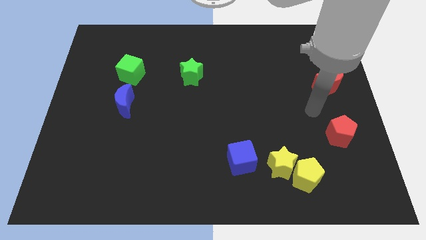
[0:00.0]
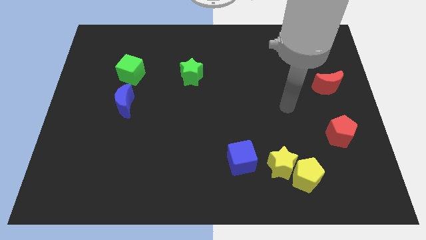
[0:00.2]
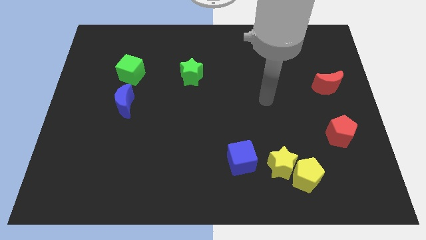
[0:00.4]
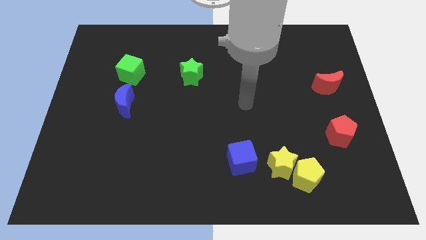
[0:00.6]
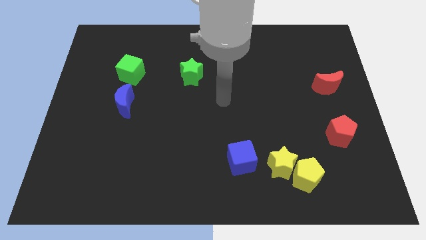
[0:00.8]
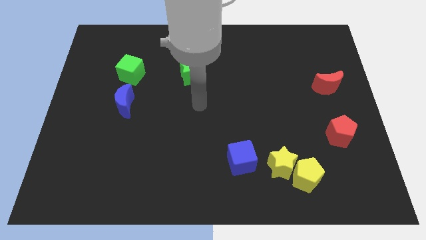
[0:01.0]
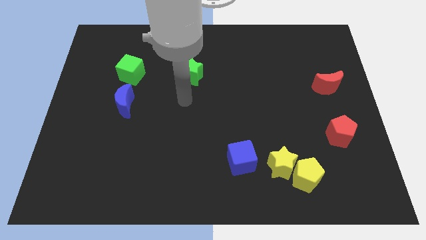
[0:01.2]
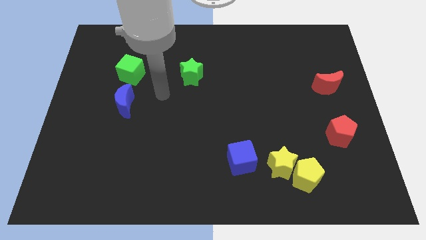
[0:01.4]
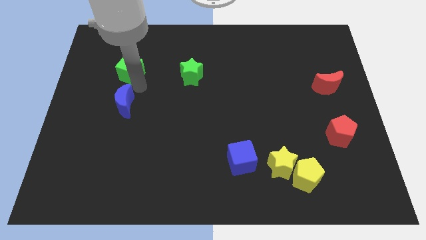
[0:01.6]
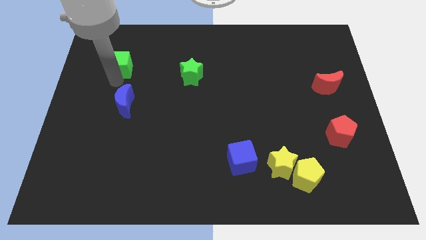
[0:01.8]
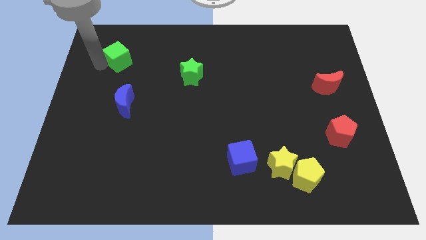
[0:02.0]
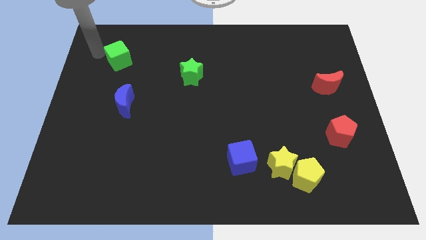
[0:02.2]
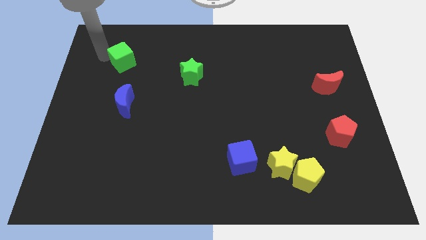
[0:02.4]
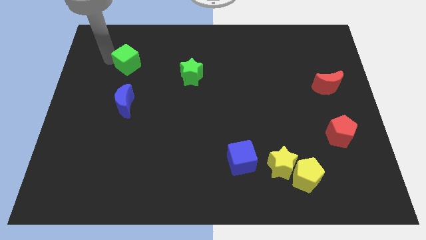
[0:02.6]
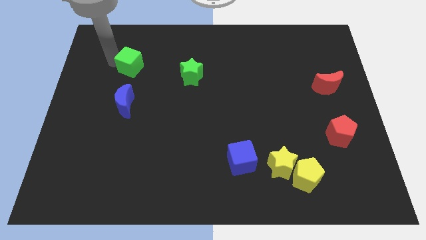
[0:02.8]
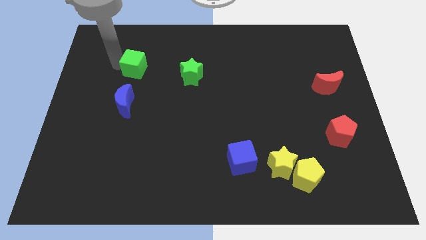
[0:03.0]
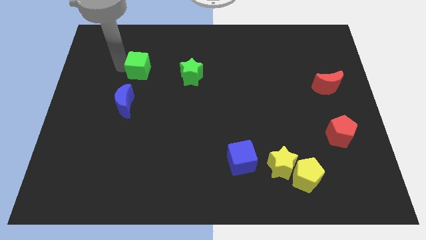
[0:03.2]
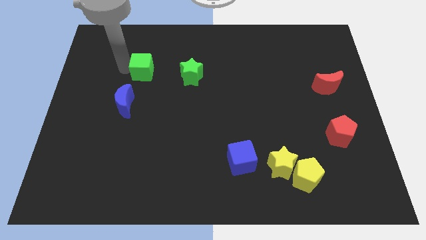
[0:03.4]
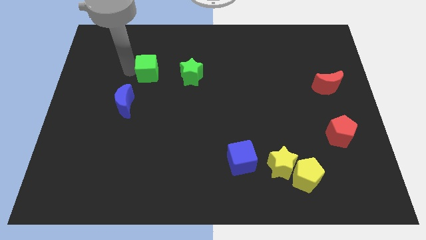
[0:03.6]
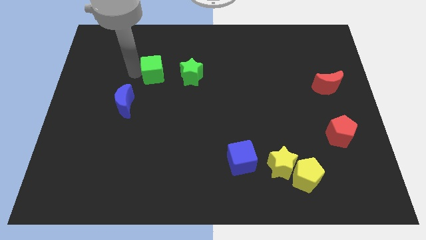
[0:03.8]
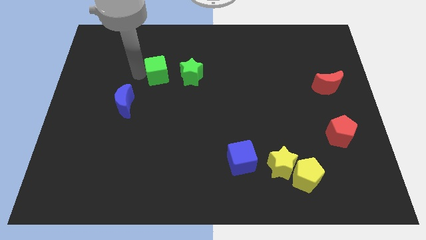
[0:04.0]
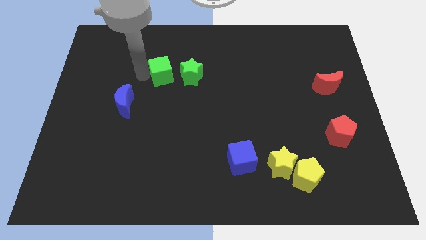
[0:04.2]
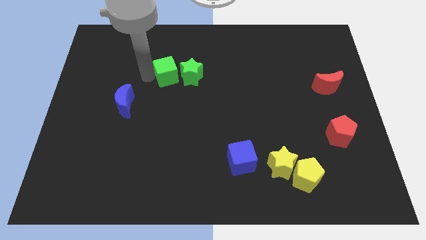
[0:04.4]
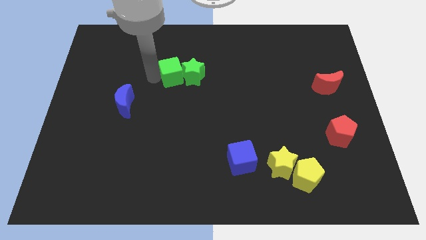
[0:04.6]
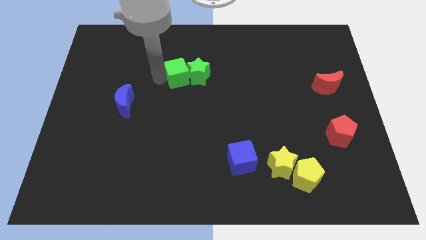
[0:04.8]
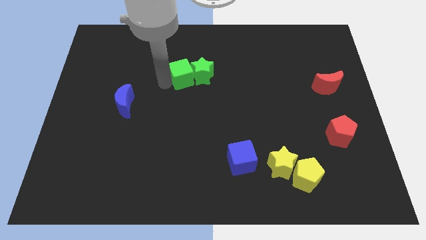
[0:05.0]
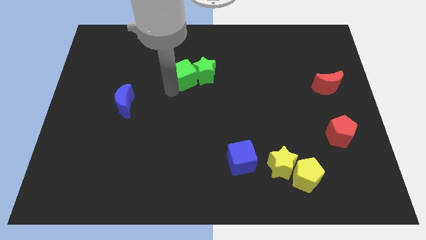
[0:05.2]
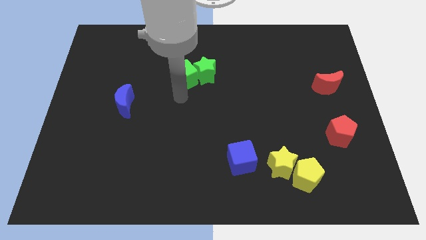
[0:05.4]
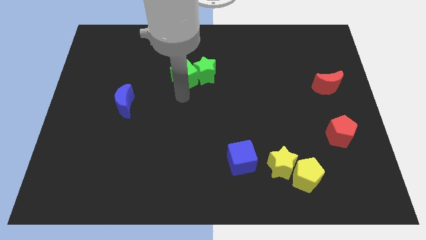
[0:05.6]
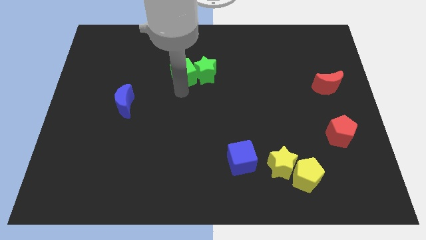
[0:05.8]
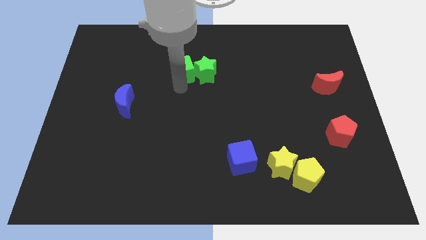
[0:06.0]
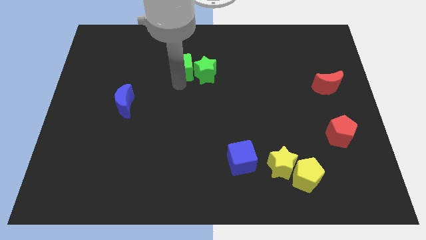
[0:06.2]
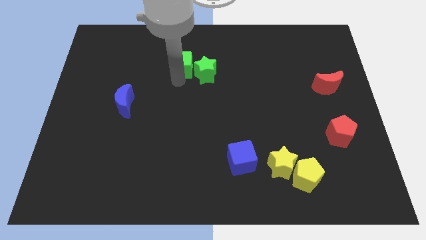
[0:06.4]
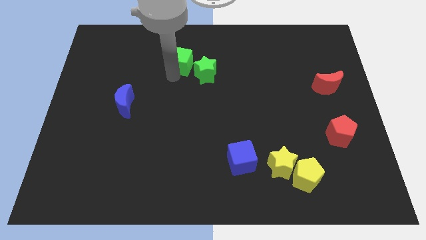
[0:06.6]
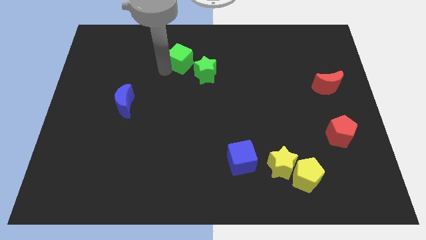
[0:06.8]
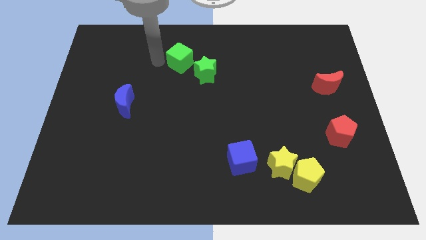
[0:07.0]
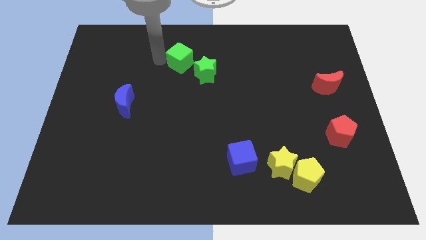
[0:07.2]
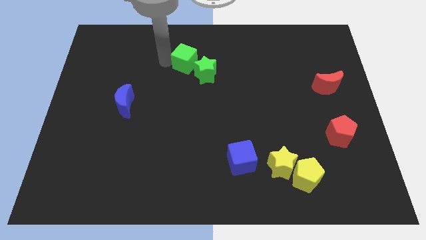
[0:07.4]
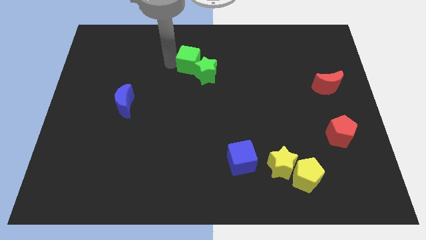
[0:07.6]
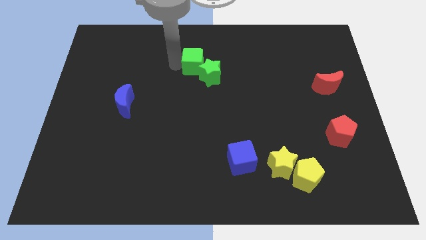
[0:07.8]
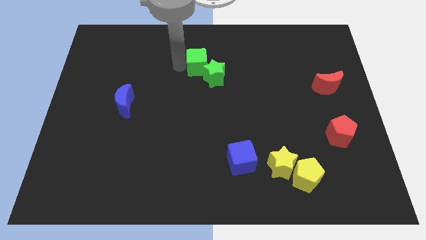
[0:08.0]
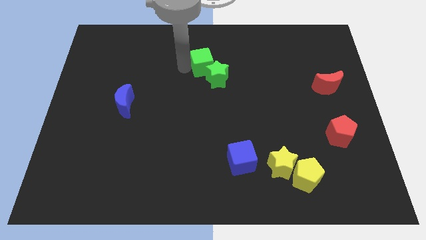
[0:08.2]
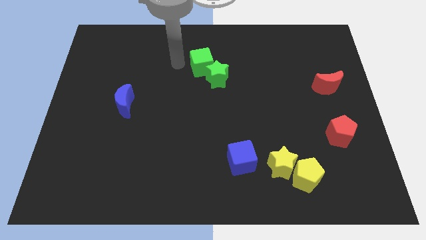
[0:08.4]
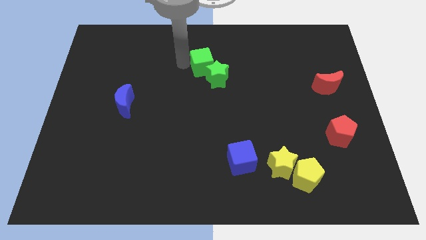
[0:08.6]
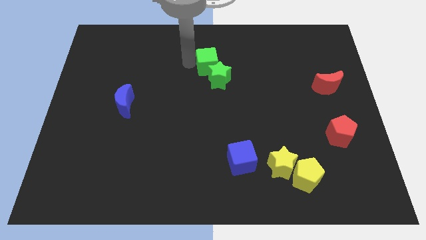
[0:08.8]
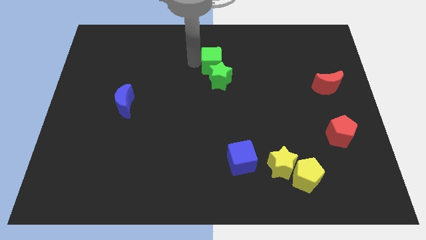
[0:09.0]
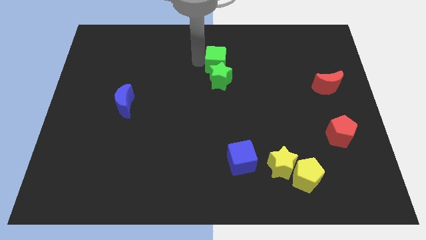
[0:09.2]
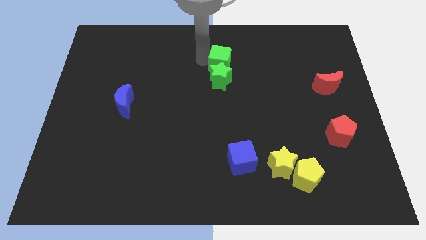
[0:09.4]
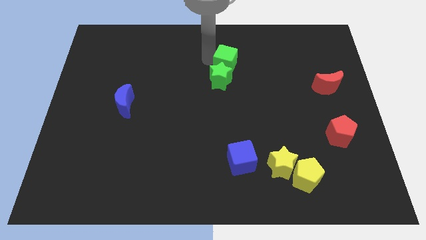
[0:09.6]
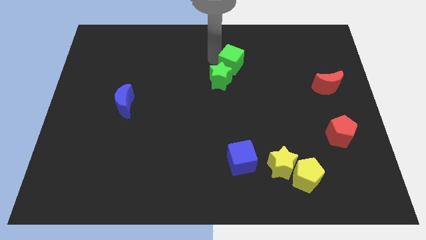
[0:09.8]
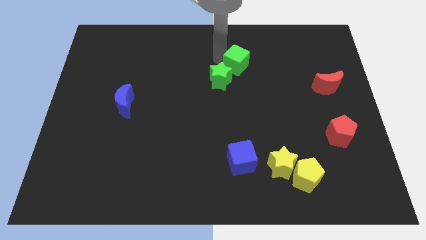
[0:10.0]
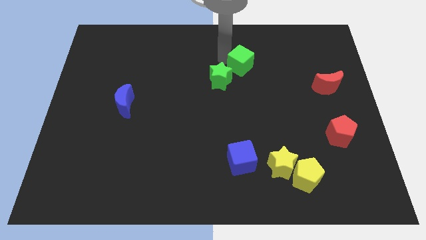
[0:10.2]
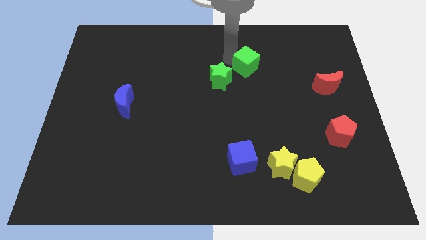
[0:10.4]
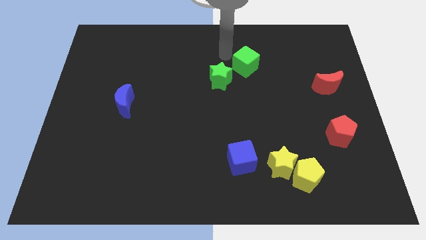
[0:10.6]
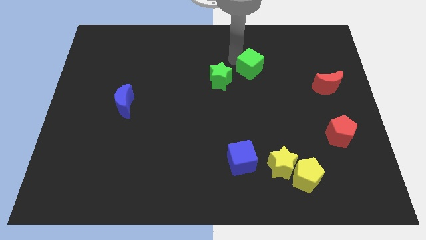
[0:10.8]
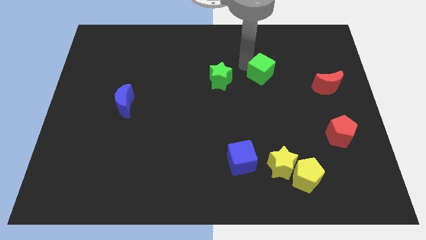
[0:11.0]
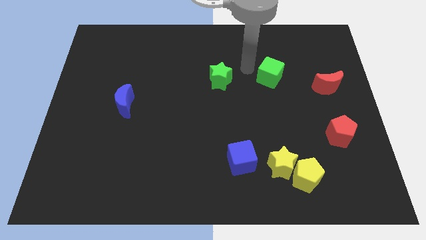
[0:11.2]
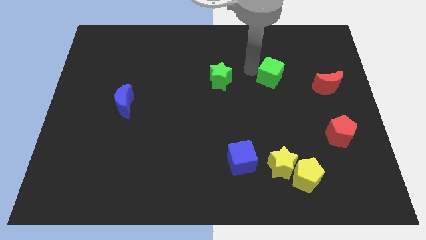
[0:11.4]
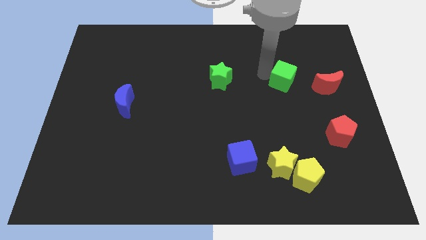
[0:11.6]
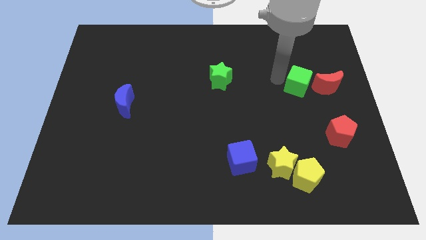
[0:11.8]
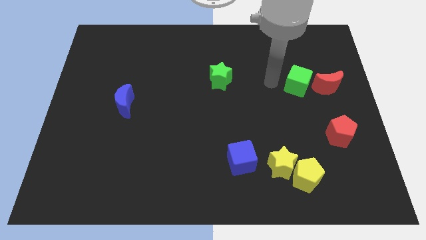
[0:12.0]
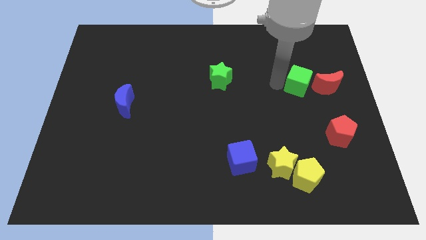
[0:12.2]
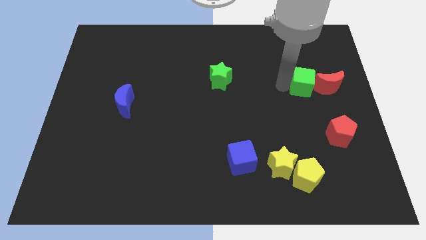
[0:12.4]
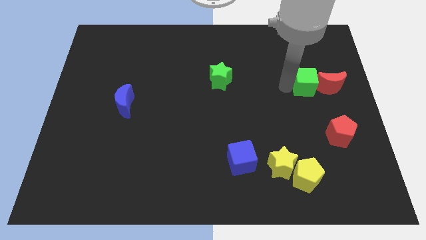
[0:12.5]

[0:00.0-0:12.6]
slide the green cube next to the red moon

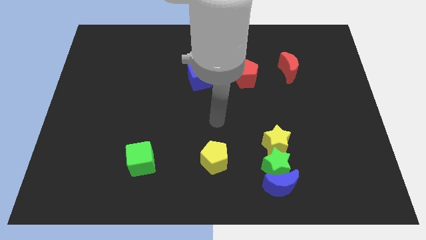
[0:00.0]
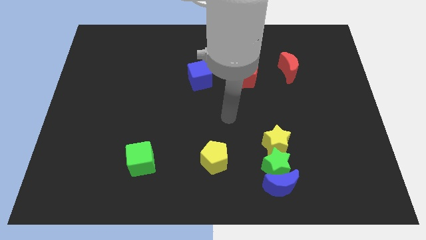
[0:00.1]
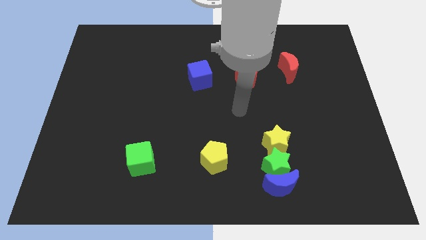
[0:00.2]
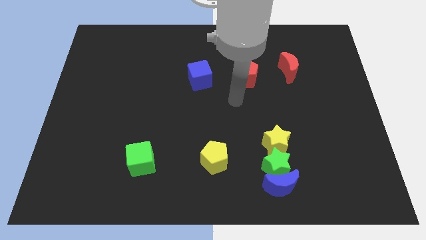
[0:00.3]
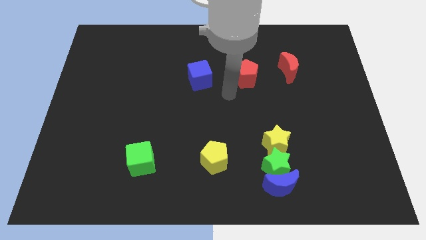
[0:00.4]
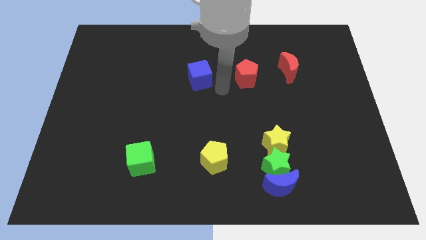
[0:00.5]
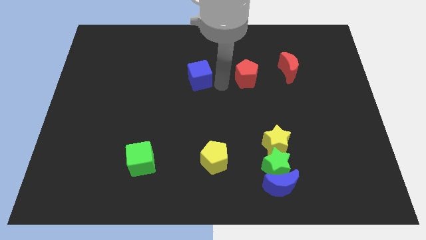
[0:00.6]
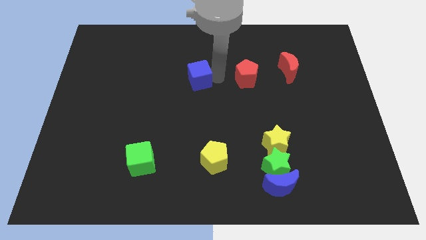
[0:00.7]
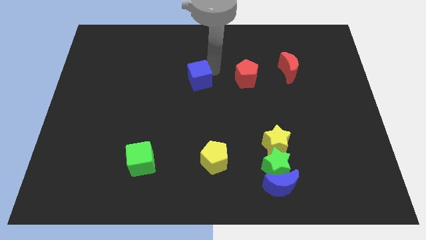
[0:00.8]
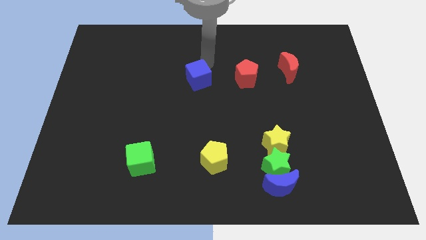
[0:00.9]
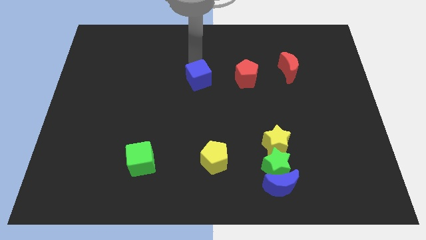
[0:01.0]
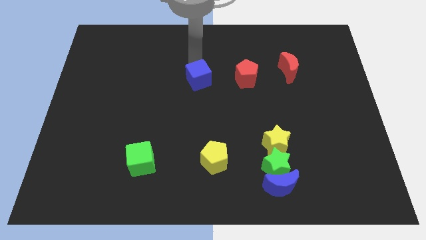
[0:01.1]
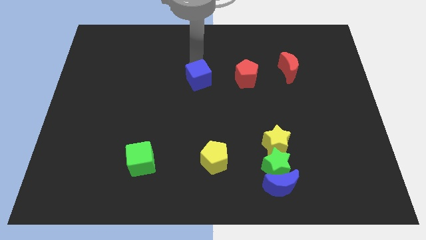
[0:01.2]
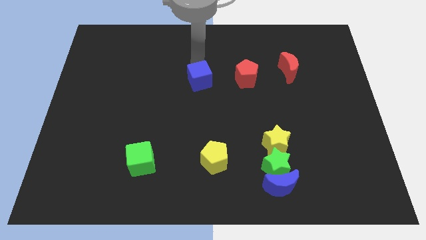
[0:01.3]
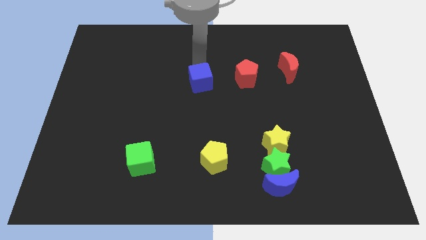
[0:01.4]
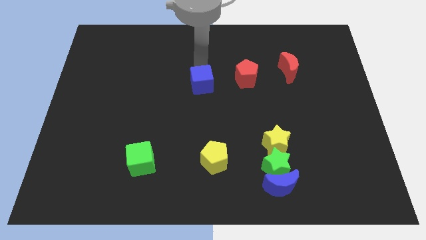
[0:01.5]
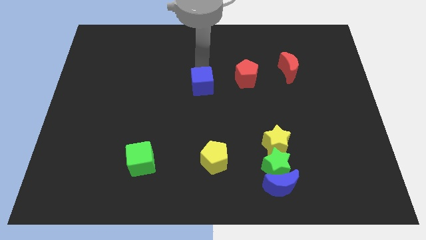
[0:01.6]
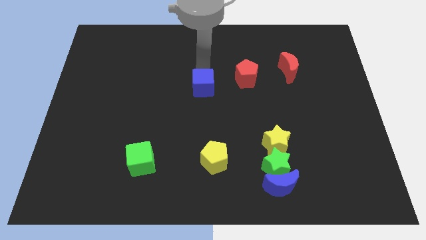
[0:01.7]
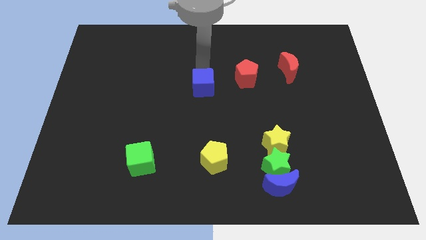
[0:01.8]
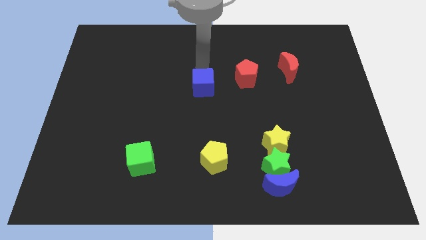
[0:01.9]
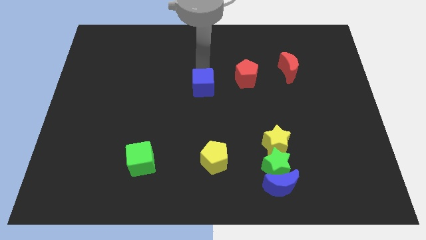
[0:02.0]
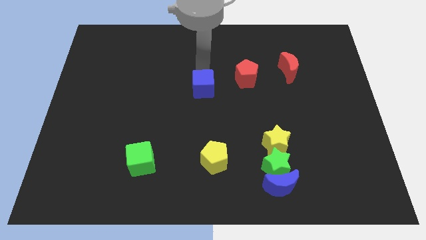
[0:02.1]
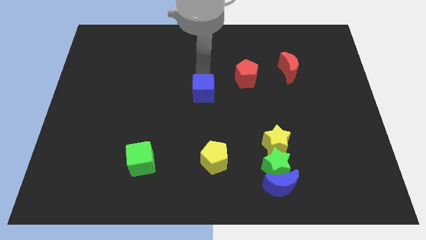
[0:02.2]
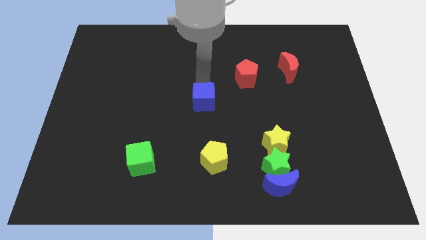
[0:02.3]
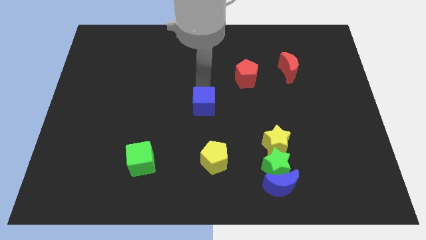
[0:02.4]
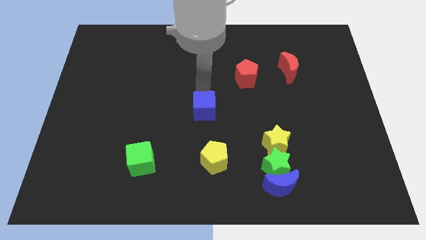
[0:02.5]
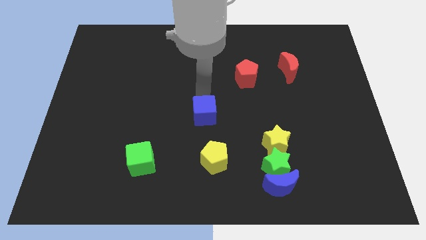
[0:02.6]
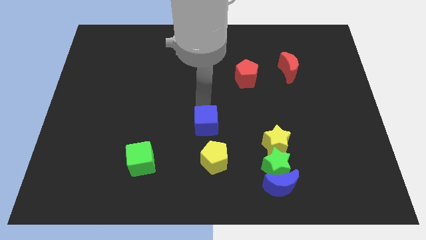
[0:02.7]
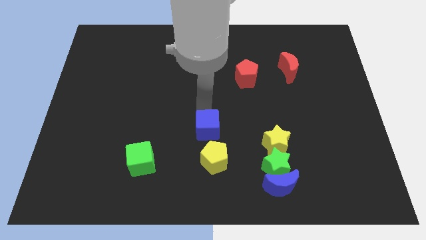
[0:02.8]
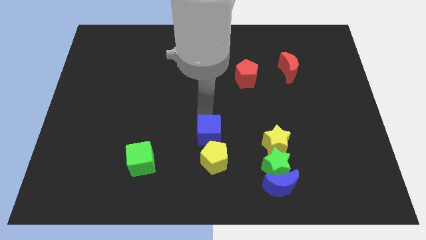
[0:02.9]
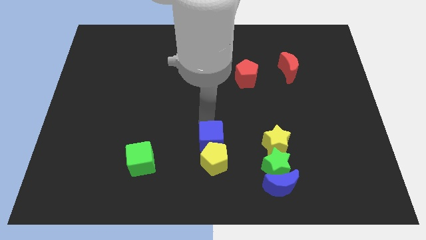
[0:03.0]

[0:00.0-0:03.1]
move the blue cube close to the yellow pentagon
